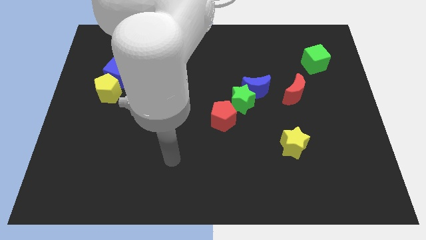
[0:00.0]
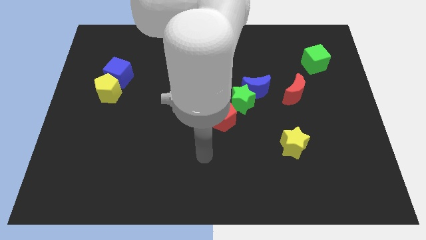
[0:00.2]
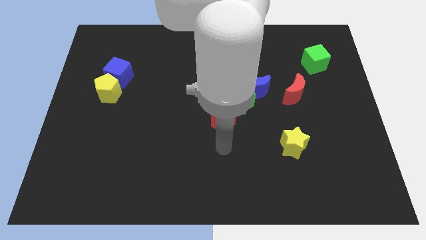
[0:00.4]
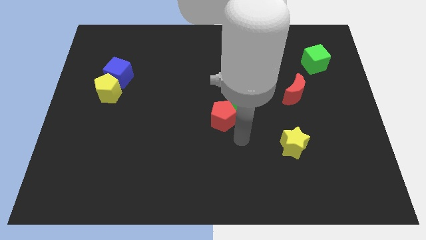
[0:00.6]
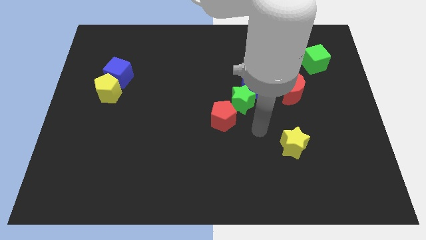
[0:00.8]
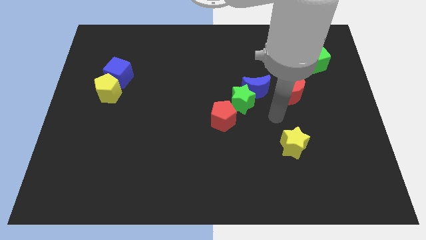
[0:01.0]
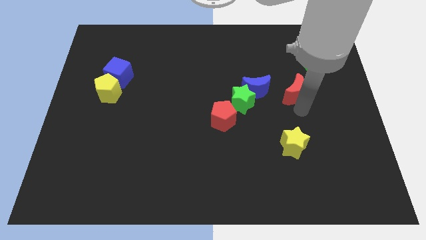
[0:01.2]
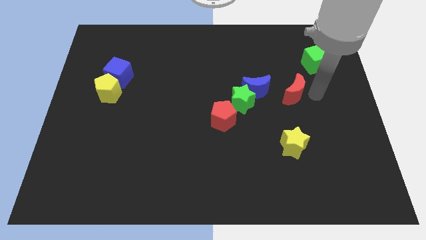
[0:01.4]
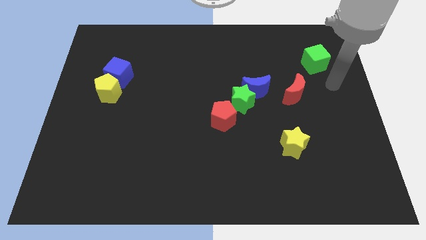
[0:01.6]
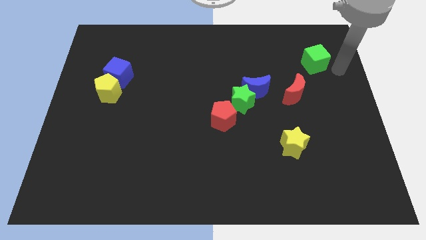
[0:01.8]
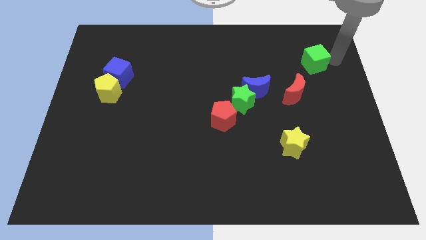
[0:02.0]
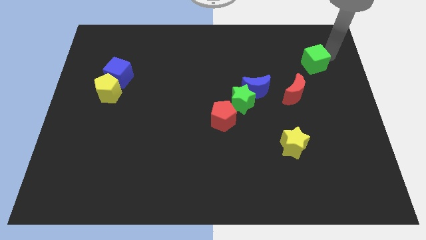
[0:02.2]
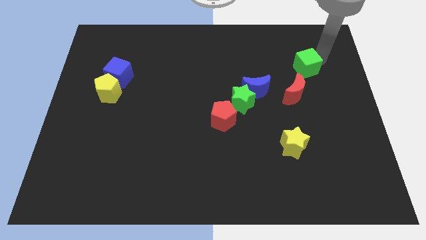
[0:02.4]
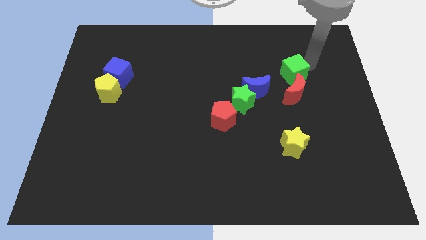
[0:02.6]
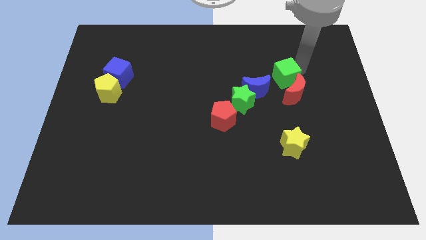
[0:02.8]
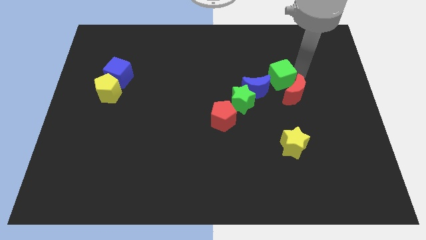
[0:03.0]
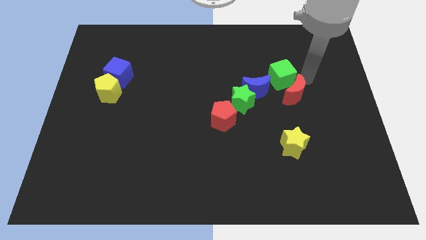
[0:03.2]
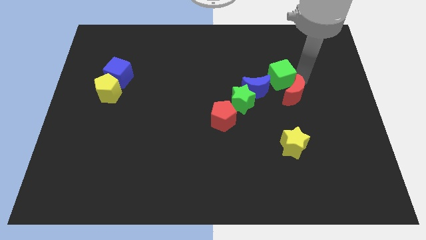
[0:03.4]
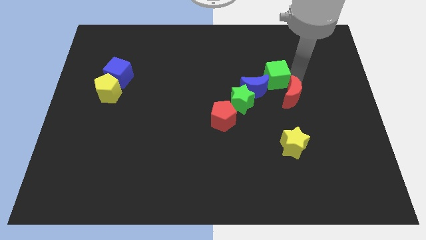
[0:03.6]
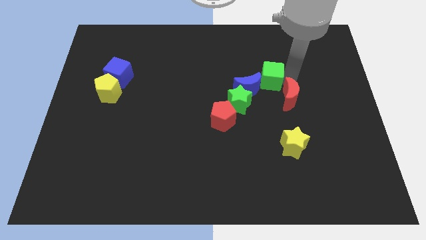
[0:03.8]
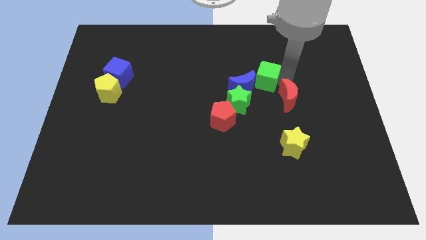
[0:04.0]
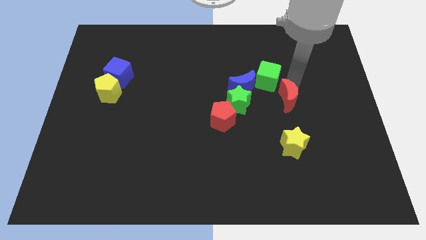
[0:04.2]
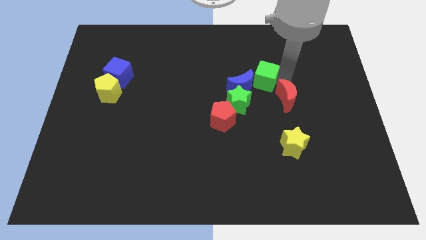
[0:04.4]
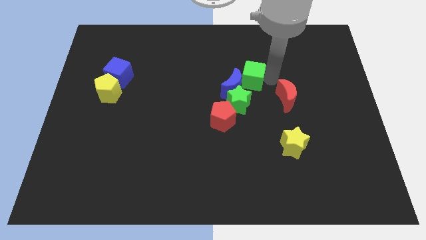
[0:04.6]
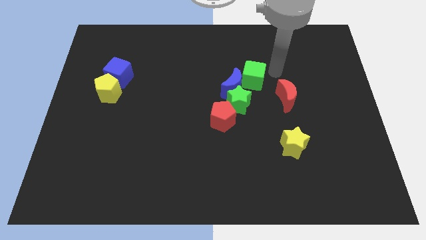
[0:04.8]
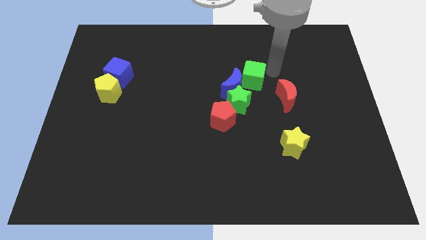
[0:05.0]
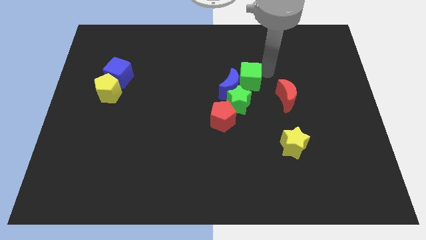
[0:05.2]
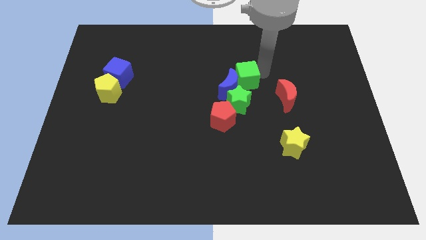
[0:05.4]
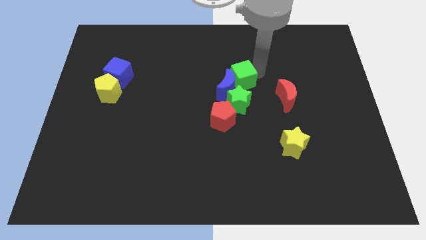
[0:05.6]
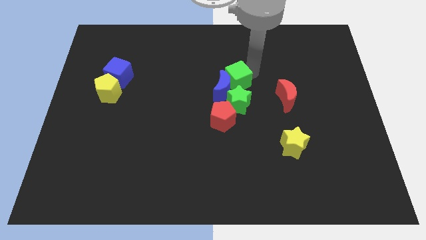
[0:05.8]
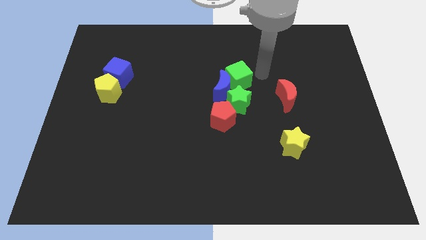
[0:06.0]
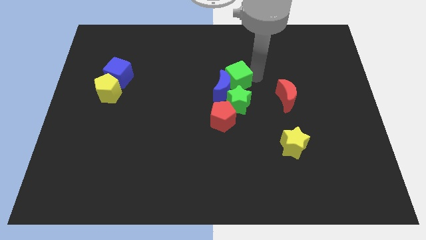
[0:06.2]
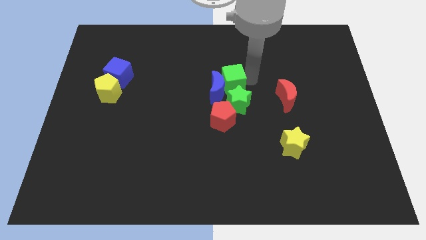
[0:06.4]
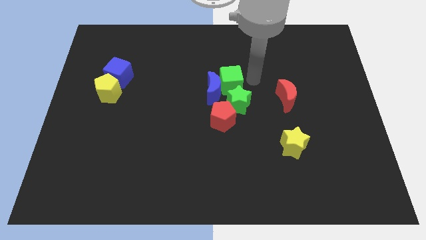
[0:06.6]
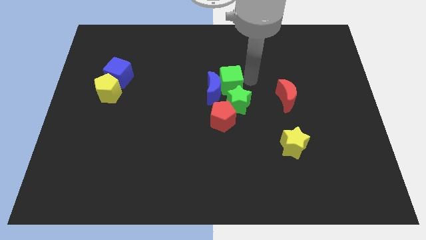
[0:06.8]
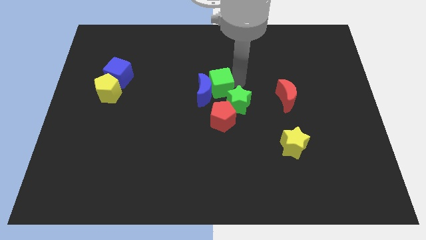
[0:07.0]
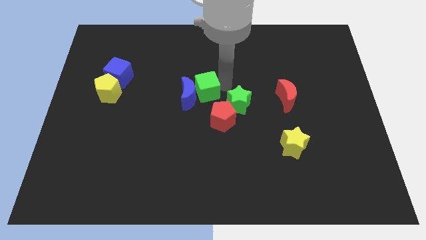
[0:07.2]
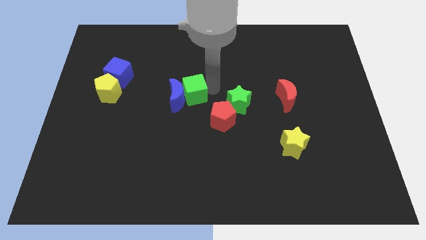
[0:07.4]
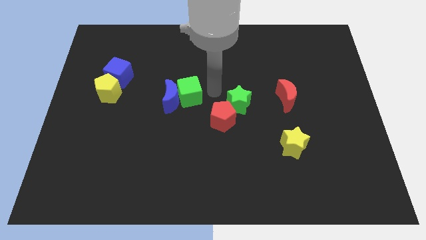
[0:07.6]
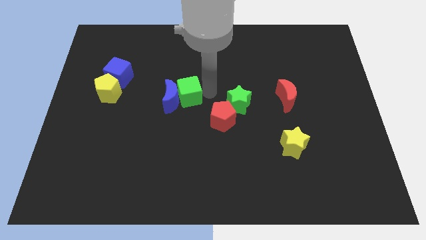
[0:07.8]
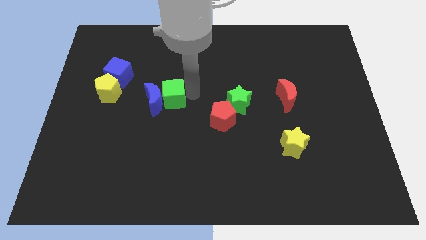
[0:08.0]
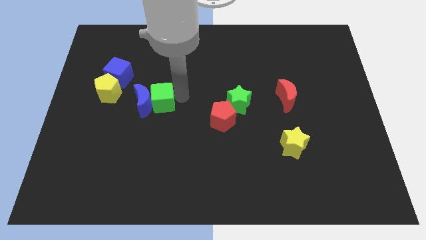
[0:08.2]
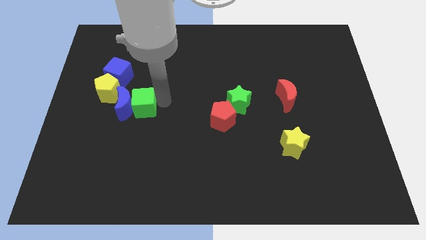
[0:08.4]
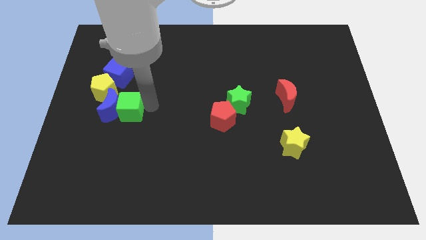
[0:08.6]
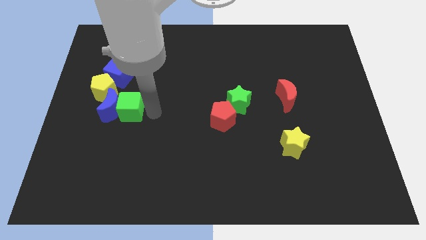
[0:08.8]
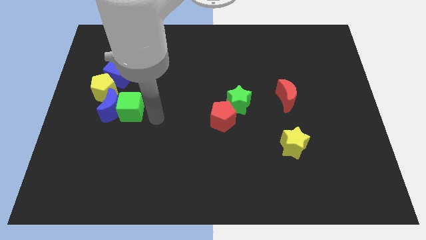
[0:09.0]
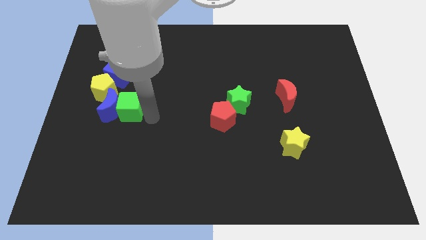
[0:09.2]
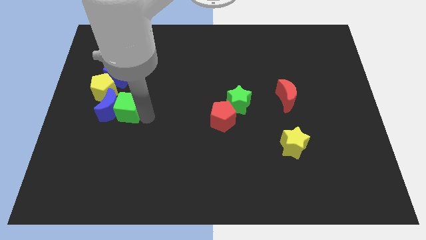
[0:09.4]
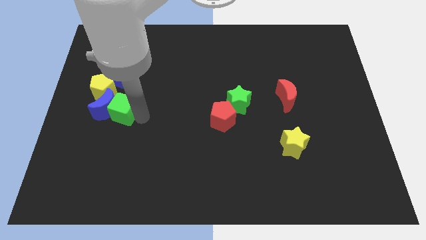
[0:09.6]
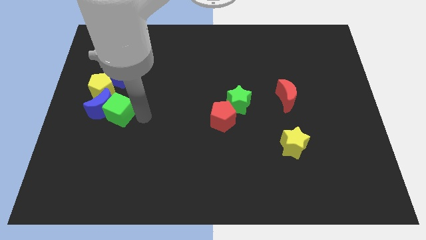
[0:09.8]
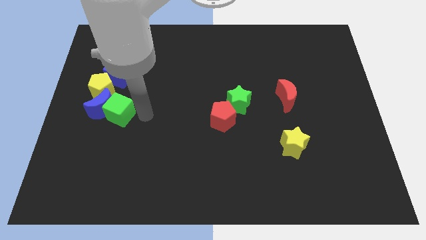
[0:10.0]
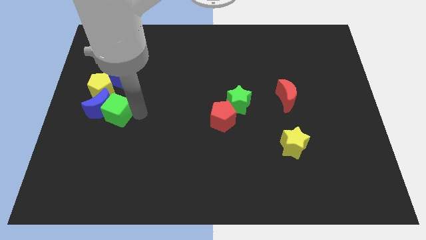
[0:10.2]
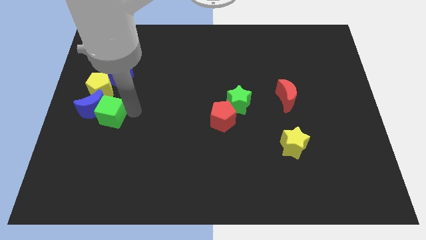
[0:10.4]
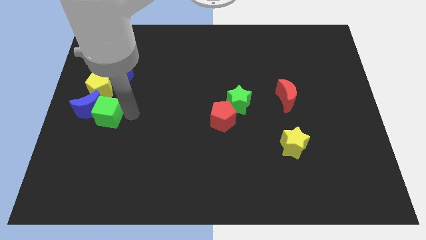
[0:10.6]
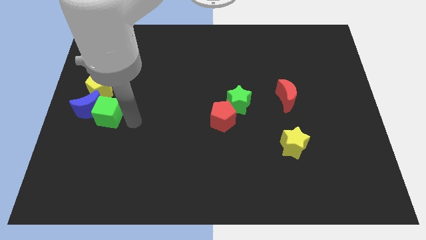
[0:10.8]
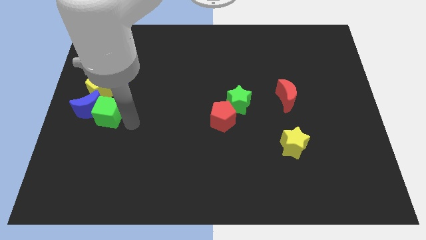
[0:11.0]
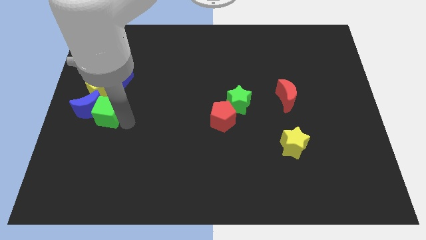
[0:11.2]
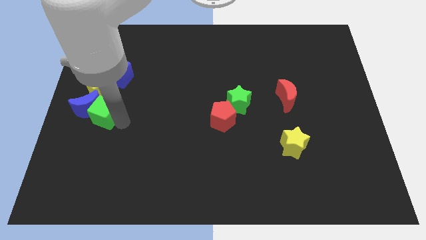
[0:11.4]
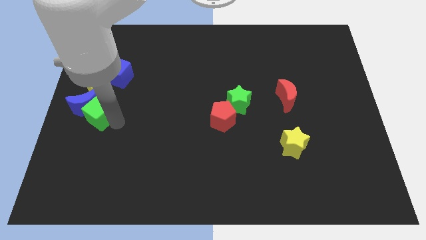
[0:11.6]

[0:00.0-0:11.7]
put the green cube to the center left
